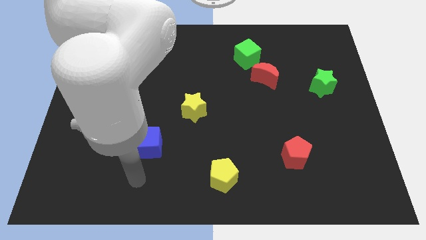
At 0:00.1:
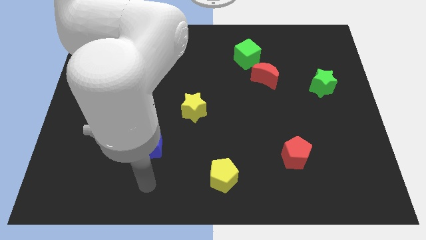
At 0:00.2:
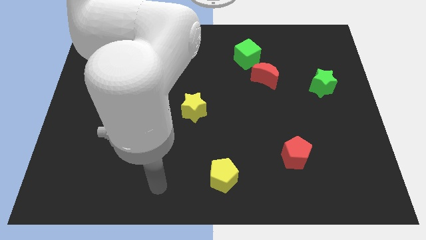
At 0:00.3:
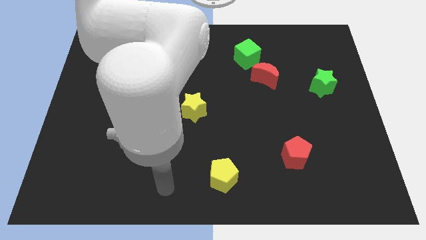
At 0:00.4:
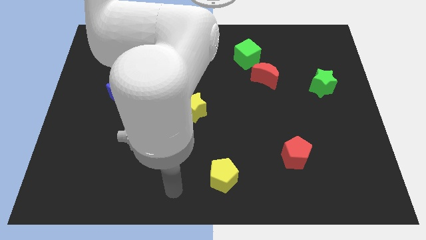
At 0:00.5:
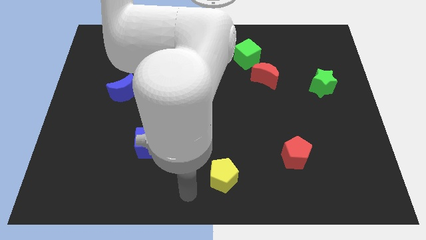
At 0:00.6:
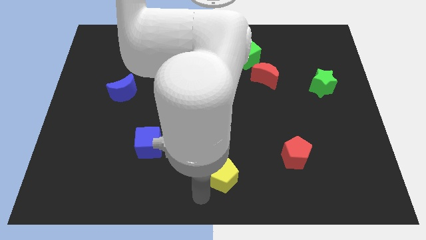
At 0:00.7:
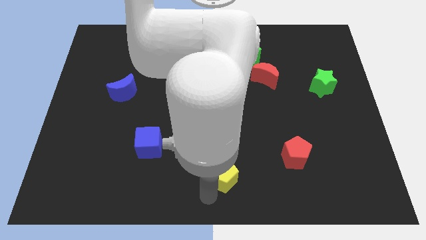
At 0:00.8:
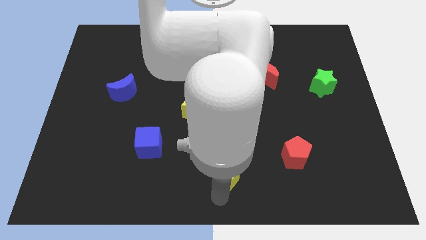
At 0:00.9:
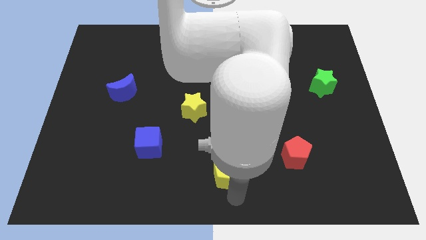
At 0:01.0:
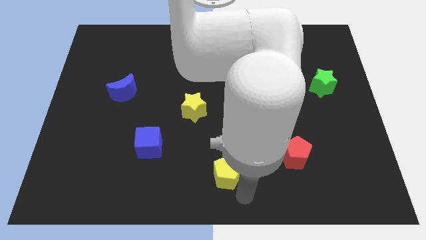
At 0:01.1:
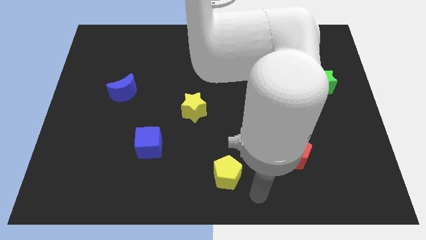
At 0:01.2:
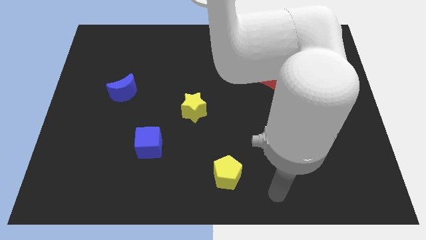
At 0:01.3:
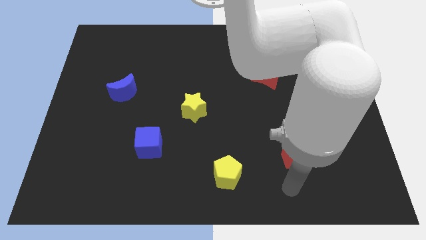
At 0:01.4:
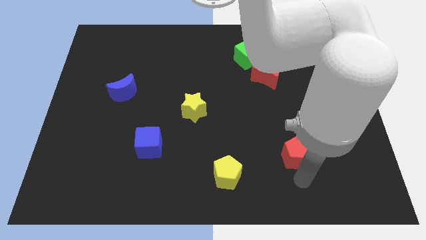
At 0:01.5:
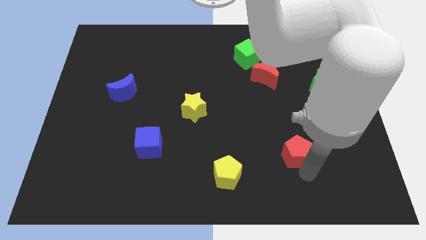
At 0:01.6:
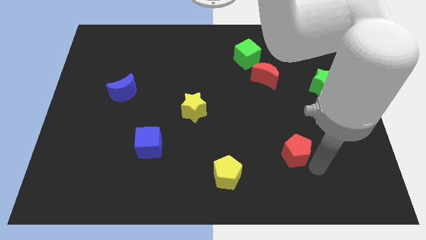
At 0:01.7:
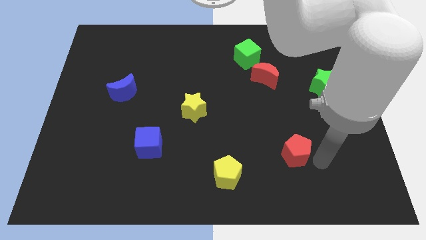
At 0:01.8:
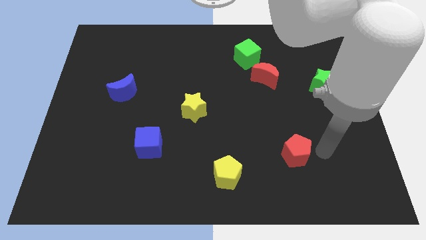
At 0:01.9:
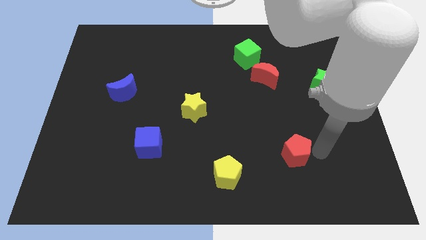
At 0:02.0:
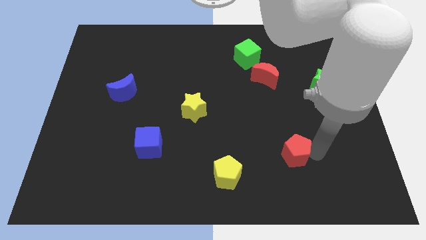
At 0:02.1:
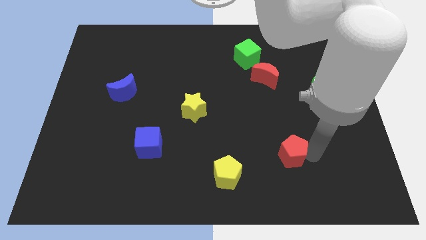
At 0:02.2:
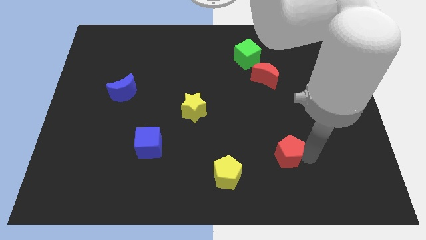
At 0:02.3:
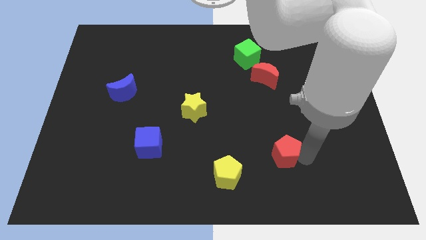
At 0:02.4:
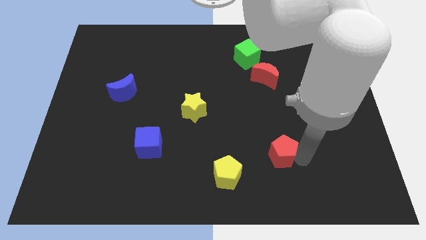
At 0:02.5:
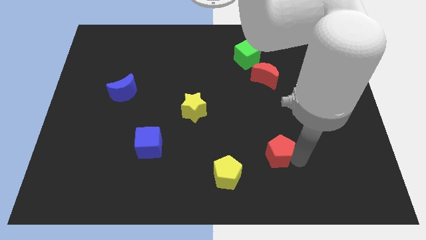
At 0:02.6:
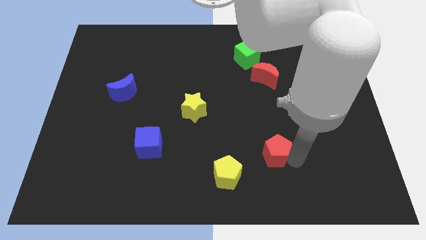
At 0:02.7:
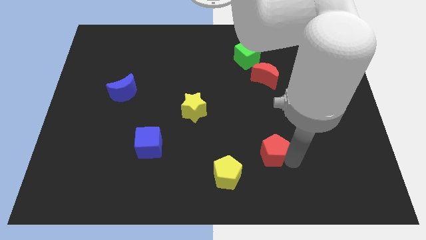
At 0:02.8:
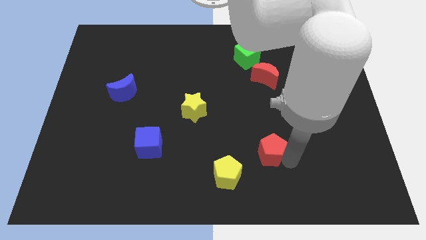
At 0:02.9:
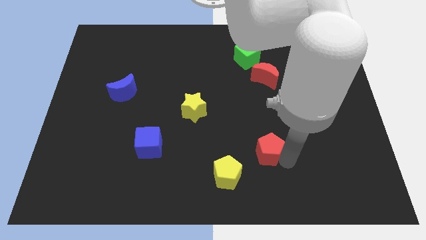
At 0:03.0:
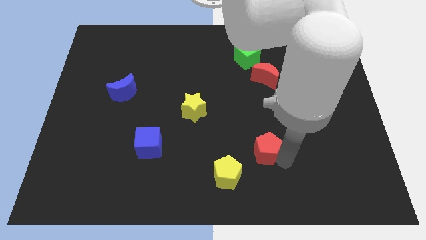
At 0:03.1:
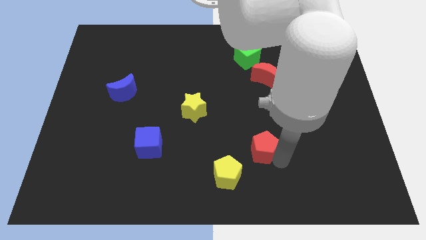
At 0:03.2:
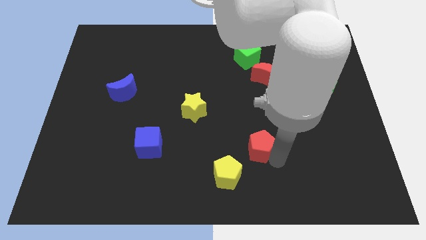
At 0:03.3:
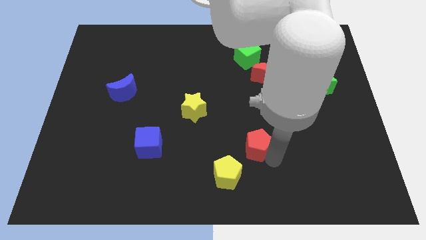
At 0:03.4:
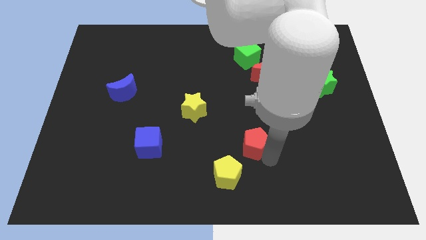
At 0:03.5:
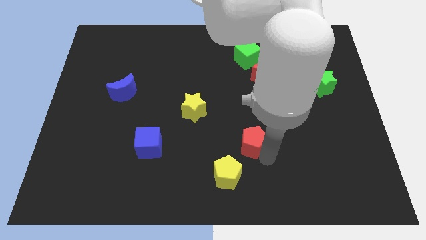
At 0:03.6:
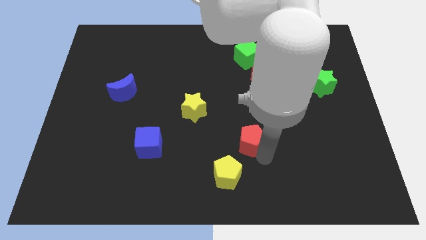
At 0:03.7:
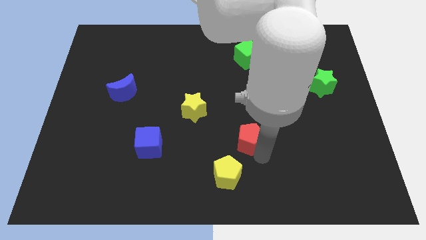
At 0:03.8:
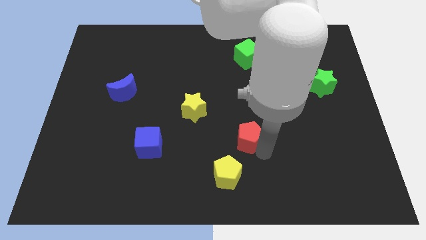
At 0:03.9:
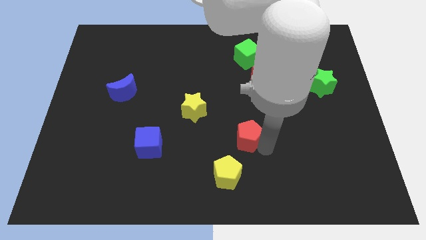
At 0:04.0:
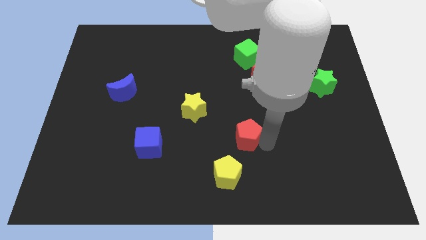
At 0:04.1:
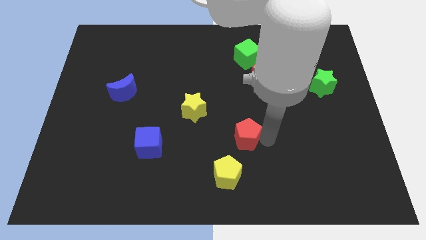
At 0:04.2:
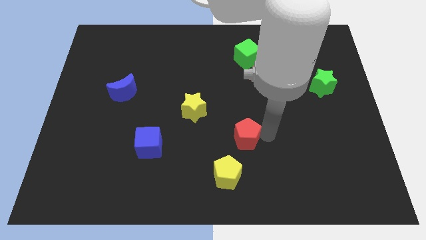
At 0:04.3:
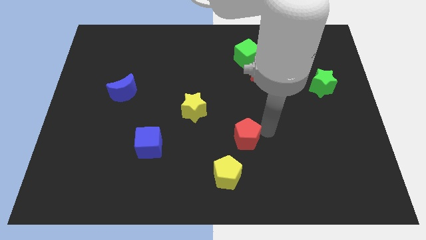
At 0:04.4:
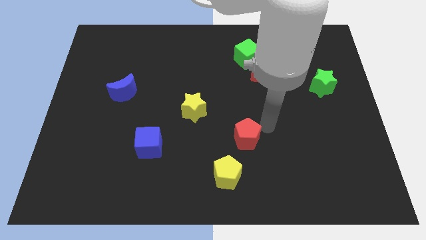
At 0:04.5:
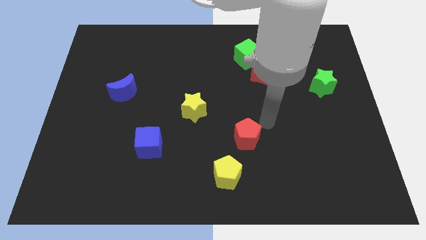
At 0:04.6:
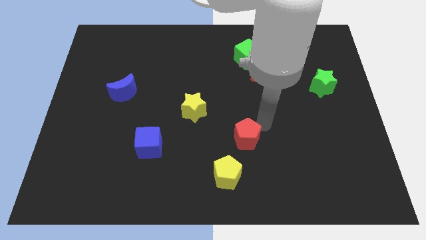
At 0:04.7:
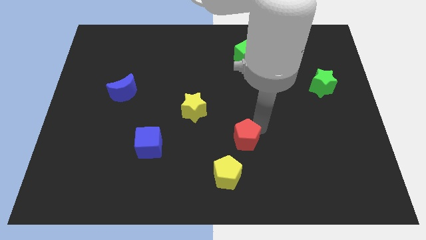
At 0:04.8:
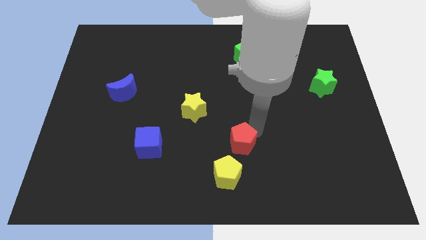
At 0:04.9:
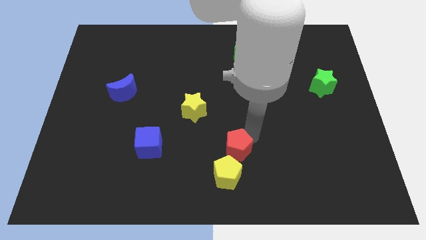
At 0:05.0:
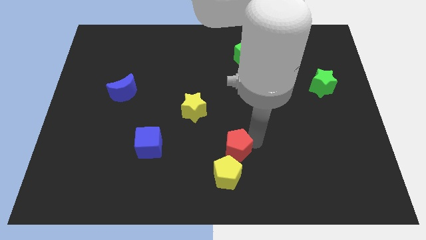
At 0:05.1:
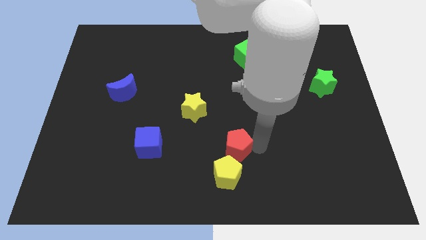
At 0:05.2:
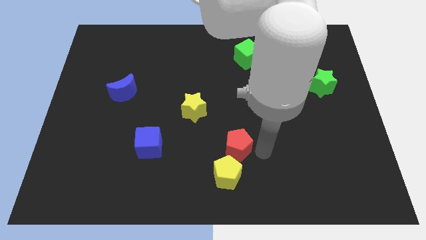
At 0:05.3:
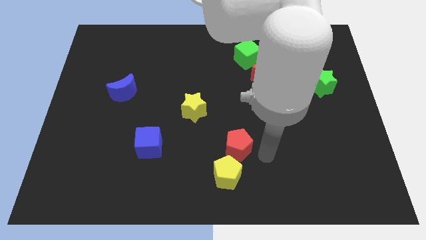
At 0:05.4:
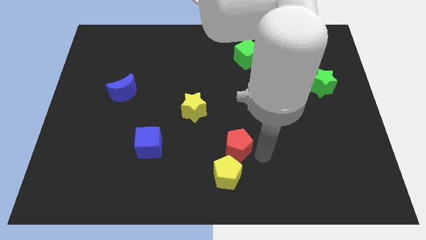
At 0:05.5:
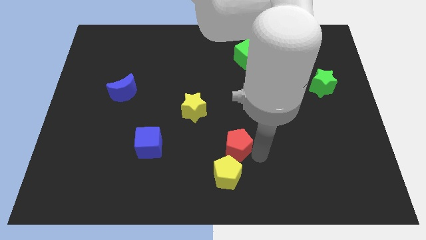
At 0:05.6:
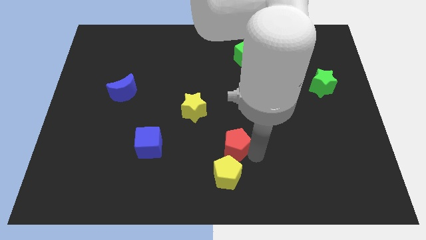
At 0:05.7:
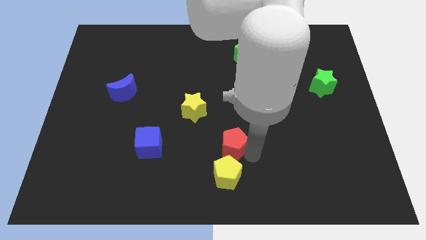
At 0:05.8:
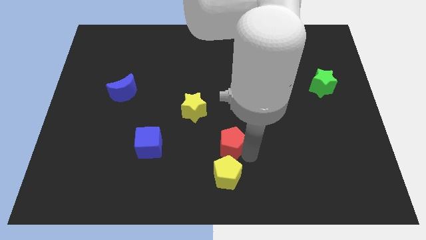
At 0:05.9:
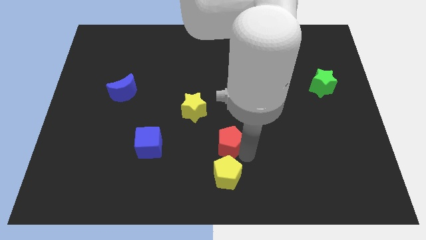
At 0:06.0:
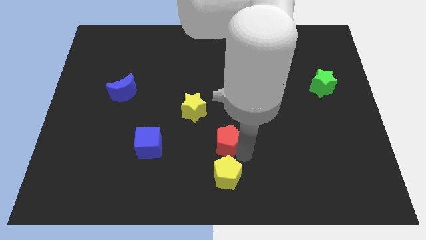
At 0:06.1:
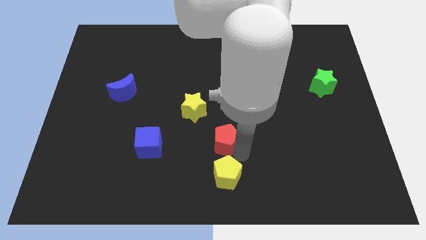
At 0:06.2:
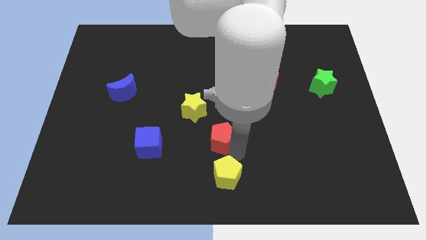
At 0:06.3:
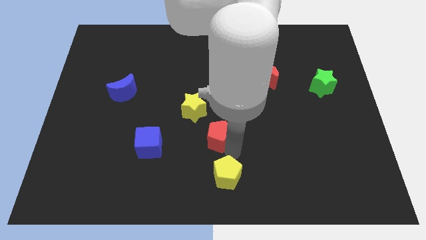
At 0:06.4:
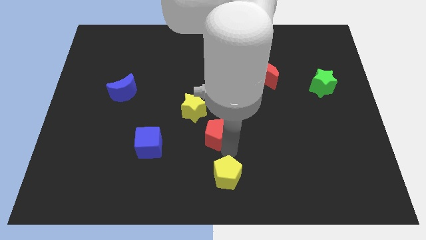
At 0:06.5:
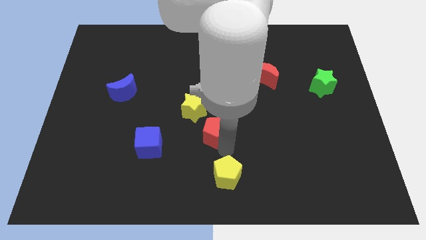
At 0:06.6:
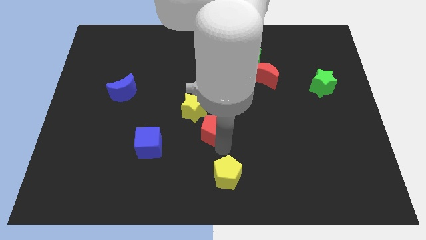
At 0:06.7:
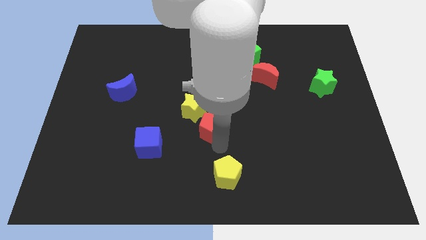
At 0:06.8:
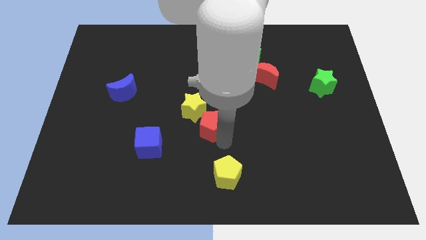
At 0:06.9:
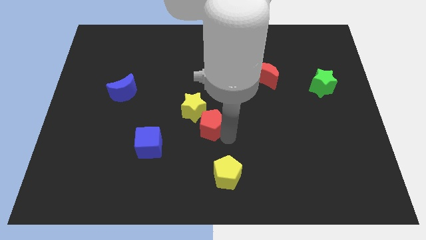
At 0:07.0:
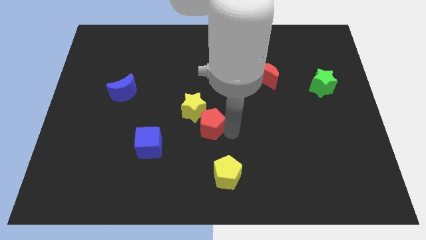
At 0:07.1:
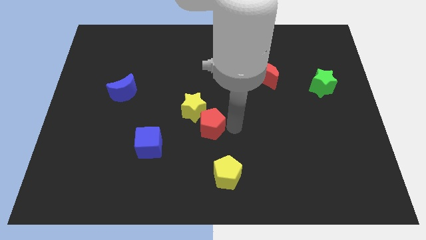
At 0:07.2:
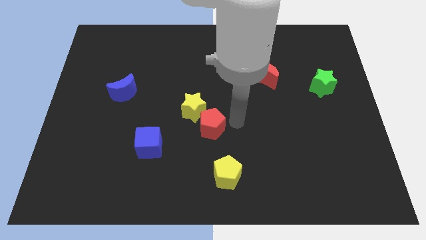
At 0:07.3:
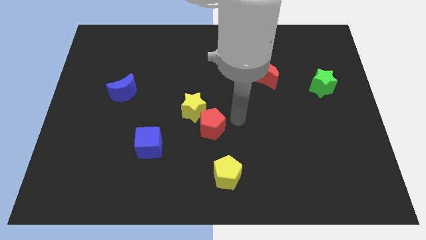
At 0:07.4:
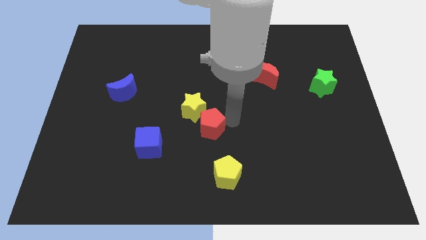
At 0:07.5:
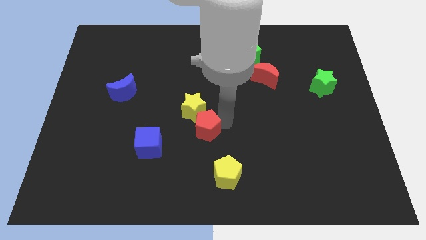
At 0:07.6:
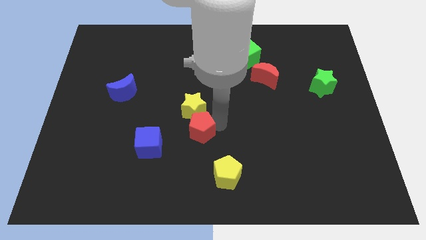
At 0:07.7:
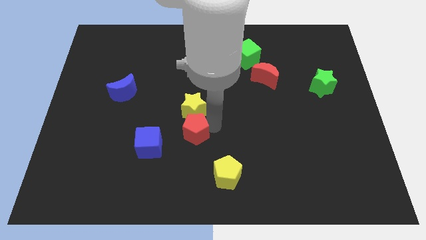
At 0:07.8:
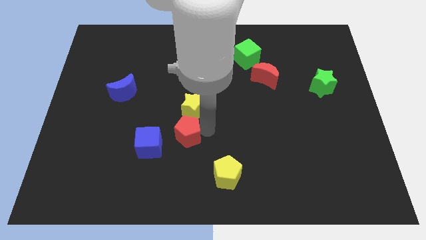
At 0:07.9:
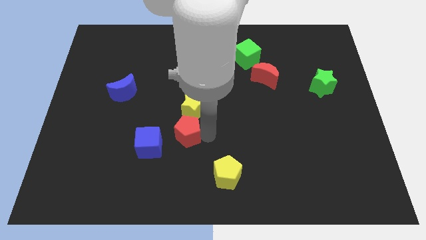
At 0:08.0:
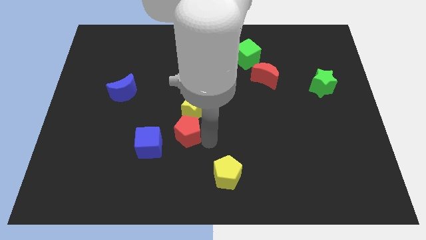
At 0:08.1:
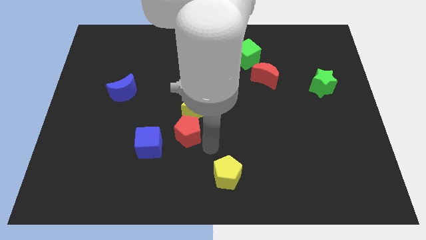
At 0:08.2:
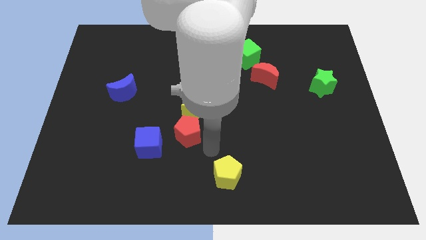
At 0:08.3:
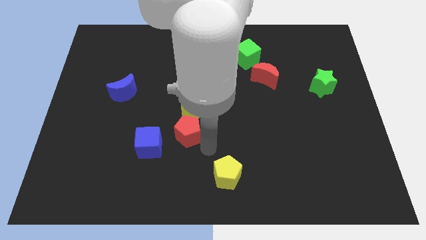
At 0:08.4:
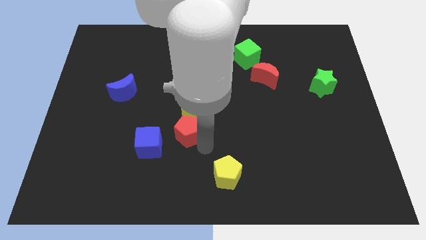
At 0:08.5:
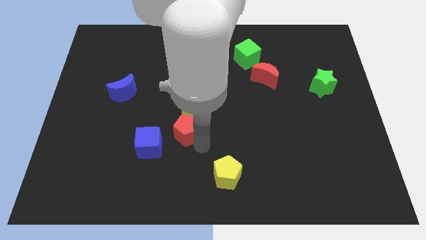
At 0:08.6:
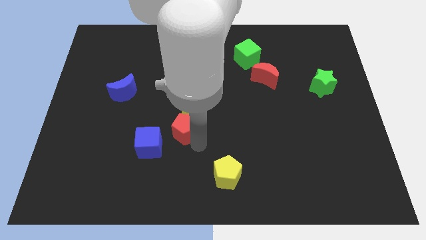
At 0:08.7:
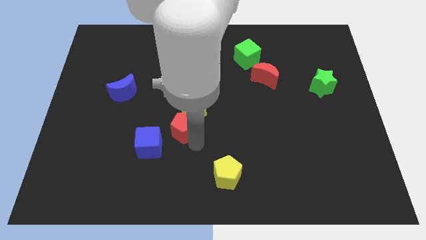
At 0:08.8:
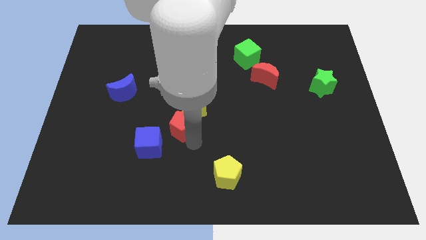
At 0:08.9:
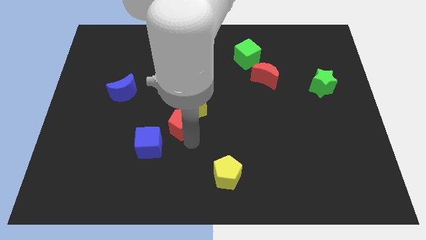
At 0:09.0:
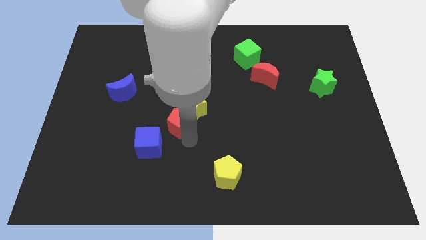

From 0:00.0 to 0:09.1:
put the red pentagon to the left side of the yellow star
